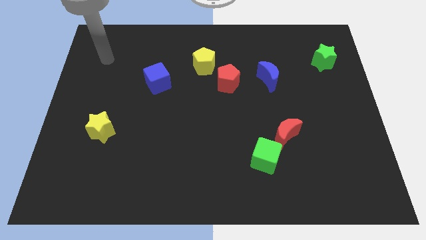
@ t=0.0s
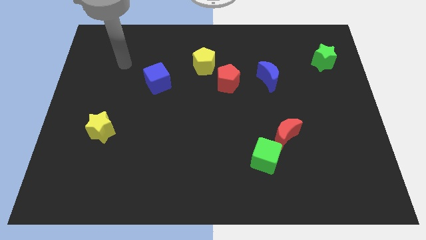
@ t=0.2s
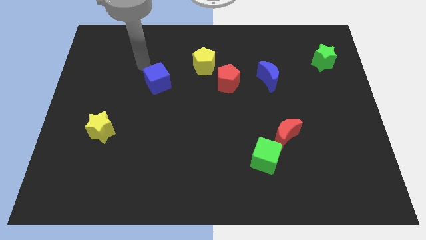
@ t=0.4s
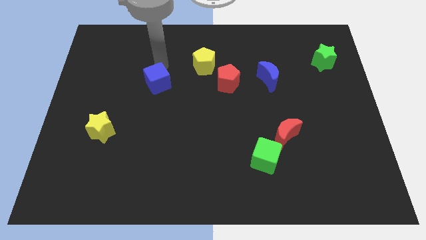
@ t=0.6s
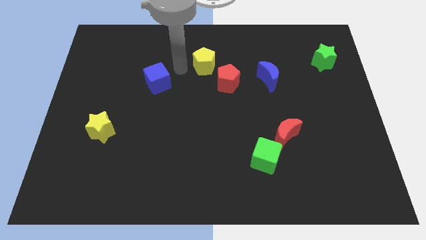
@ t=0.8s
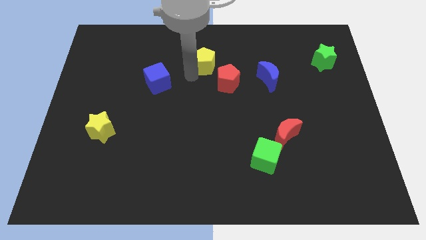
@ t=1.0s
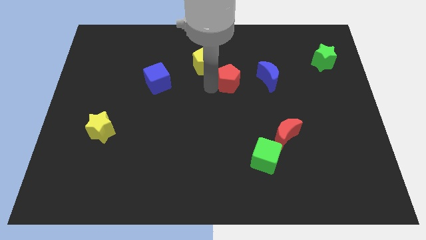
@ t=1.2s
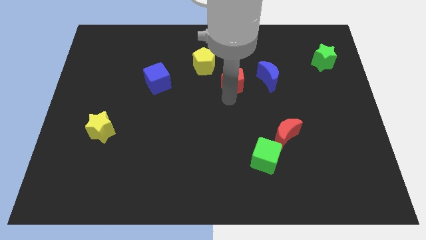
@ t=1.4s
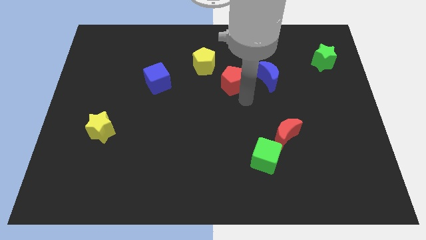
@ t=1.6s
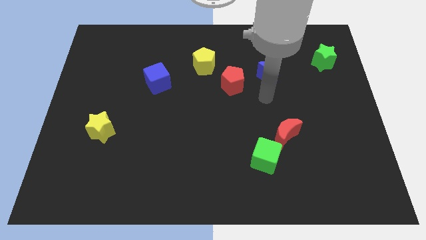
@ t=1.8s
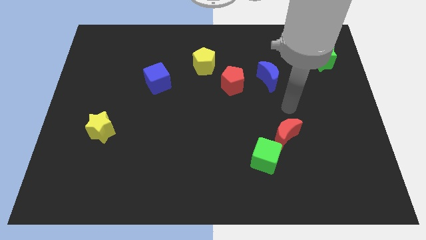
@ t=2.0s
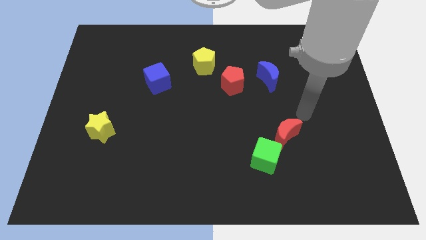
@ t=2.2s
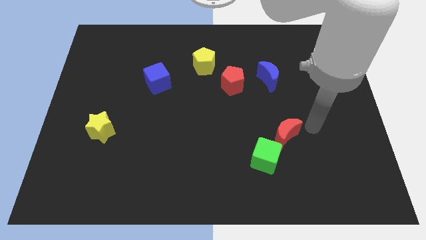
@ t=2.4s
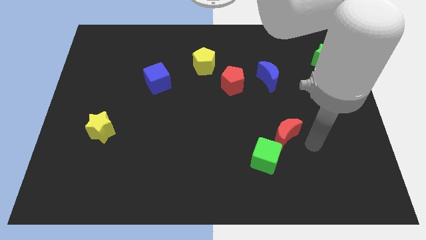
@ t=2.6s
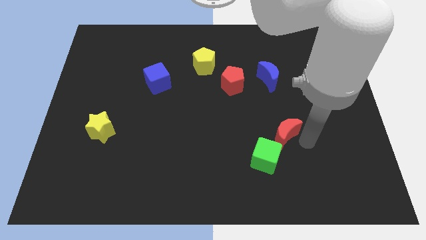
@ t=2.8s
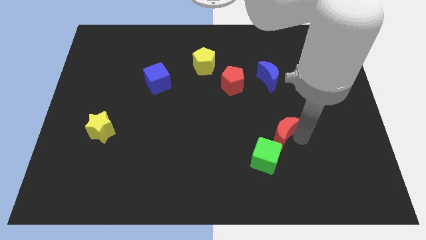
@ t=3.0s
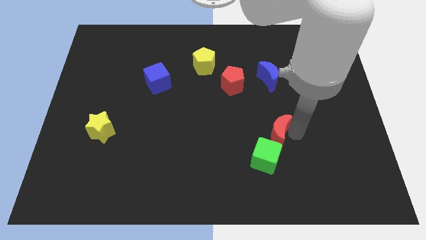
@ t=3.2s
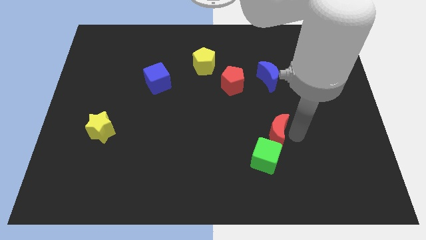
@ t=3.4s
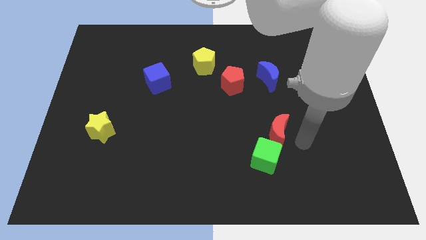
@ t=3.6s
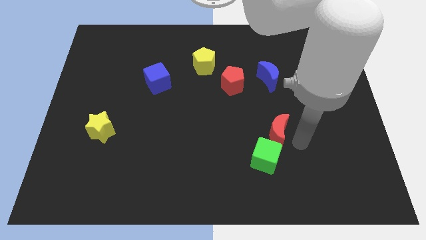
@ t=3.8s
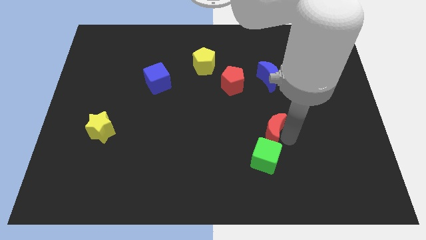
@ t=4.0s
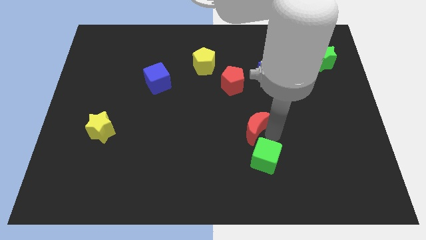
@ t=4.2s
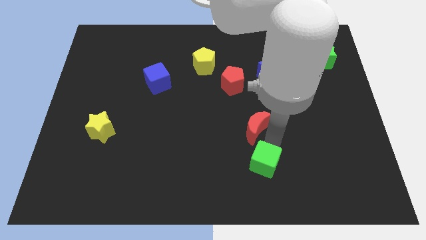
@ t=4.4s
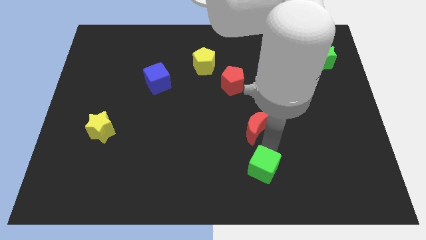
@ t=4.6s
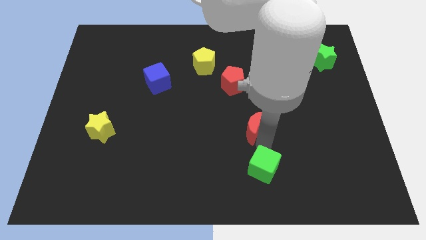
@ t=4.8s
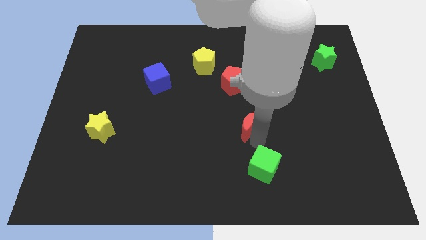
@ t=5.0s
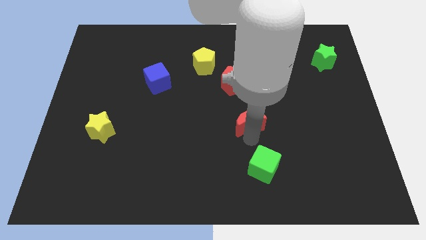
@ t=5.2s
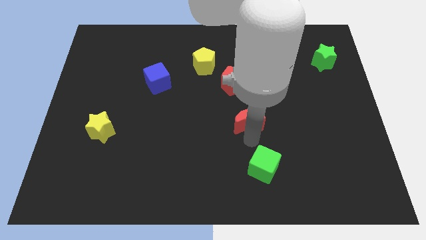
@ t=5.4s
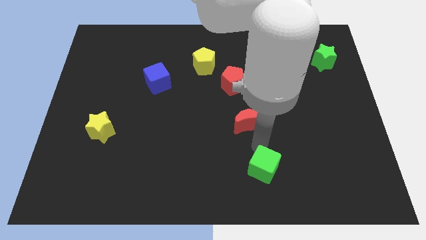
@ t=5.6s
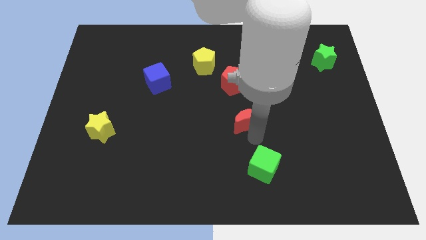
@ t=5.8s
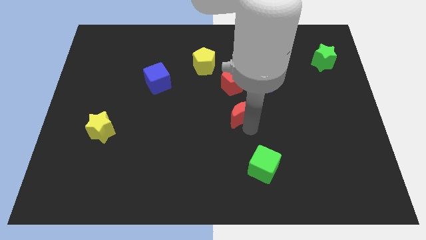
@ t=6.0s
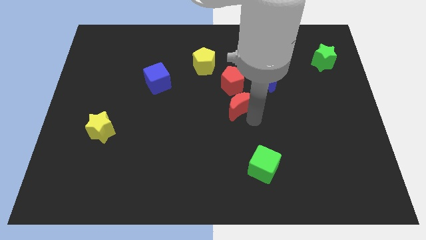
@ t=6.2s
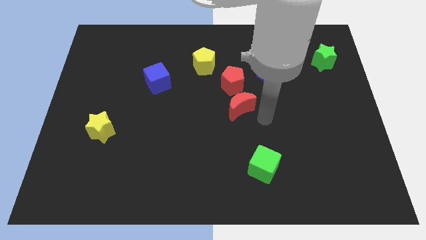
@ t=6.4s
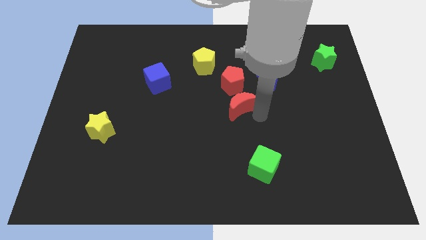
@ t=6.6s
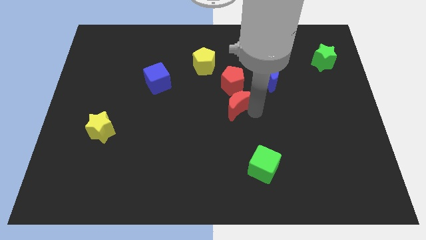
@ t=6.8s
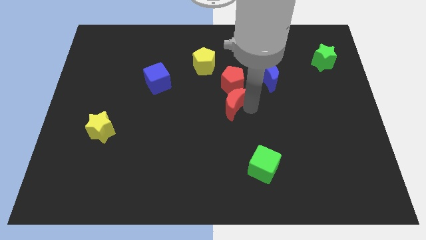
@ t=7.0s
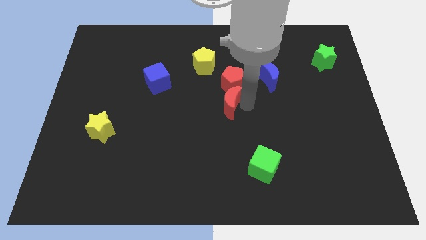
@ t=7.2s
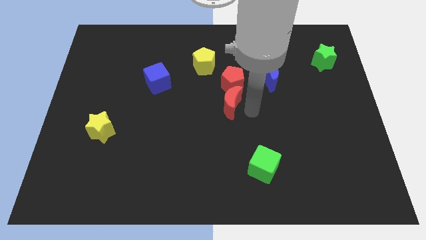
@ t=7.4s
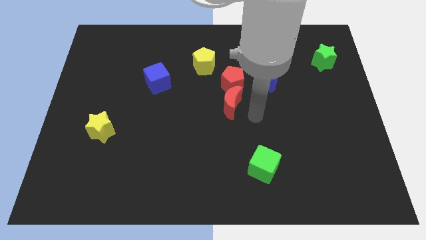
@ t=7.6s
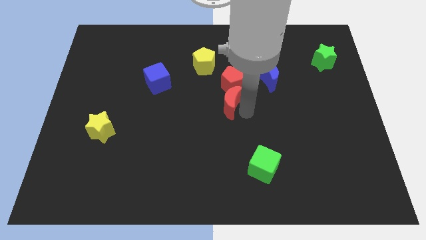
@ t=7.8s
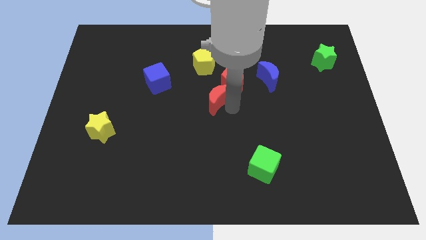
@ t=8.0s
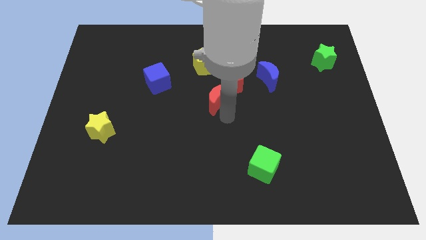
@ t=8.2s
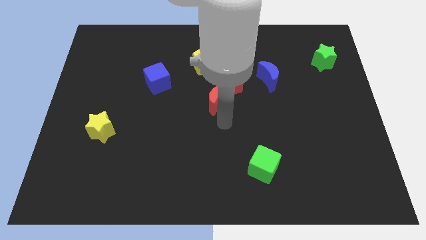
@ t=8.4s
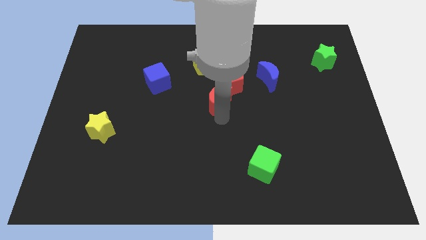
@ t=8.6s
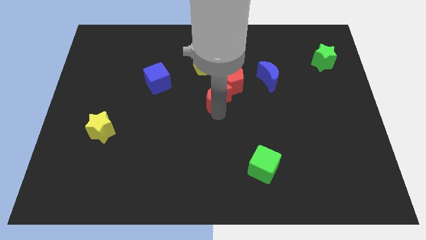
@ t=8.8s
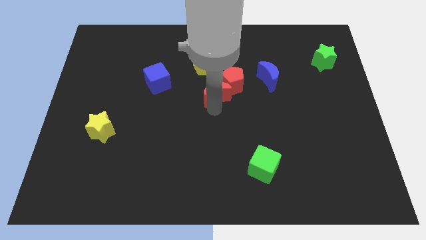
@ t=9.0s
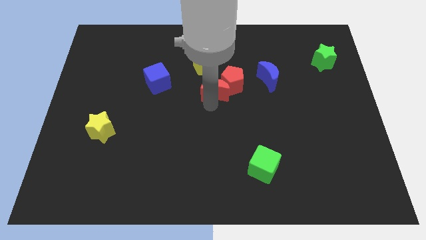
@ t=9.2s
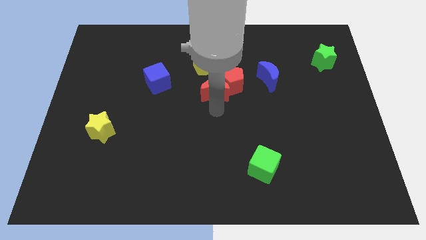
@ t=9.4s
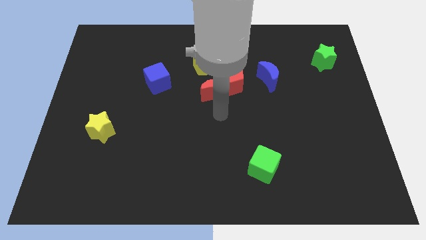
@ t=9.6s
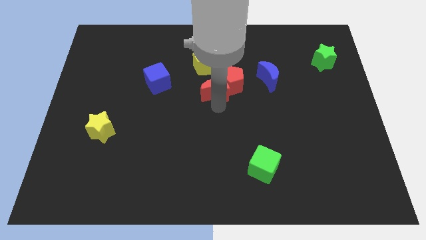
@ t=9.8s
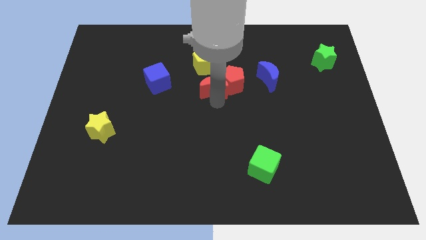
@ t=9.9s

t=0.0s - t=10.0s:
put the red moon just left of the blue moon

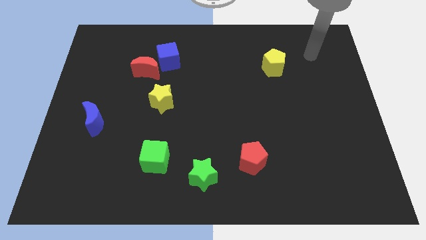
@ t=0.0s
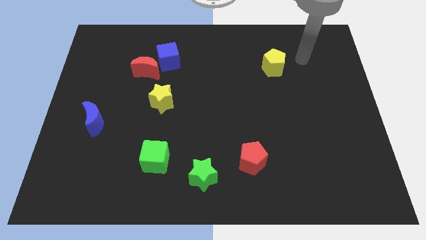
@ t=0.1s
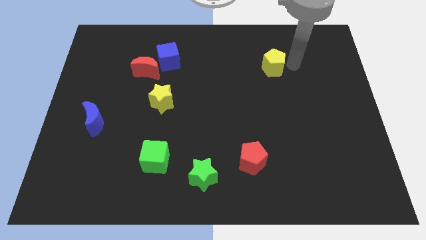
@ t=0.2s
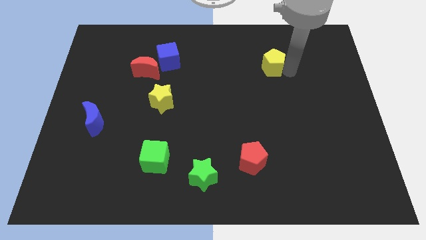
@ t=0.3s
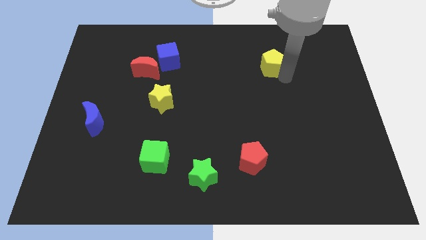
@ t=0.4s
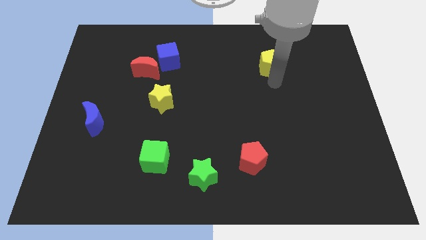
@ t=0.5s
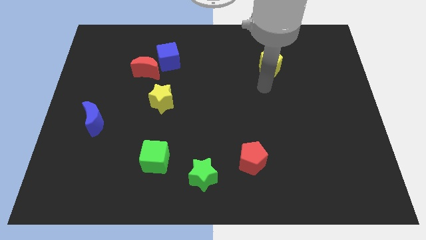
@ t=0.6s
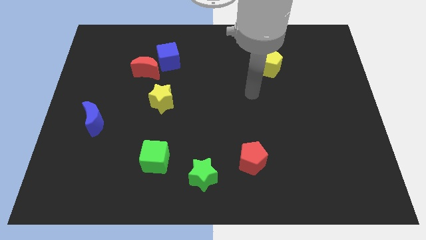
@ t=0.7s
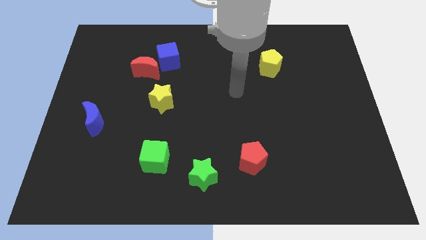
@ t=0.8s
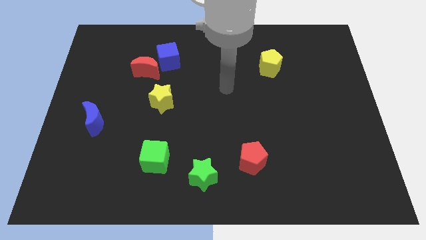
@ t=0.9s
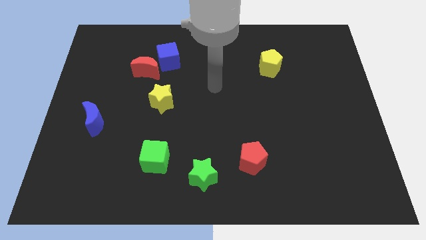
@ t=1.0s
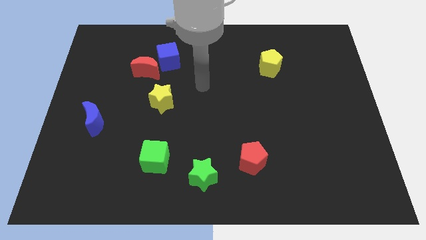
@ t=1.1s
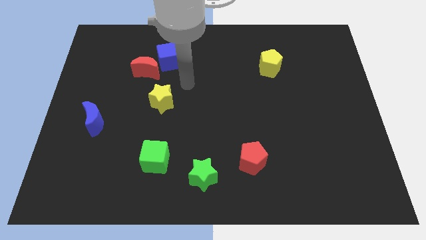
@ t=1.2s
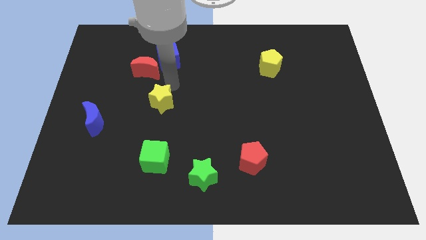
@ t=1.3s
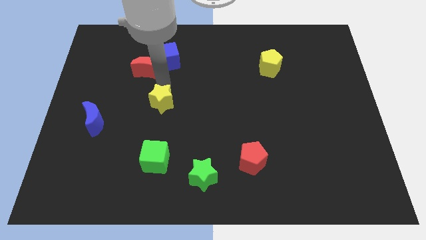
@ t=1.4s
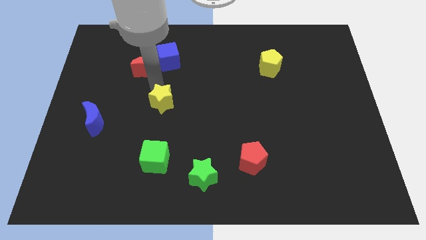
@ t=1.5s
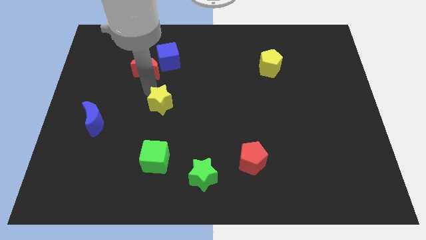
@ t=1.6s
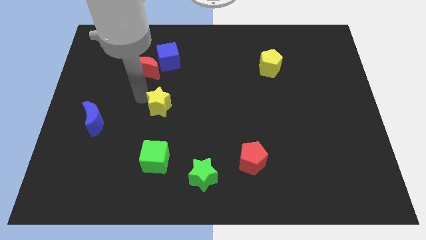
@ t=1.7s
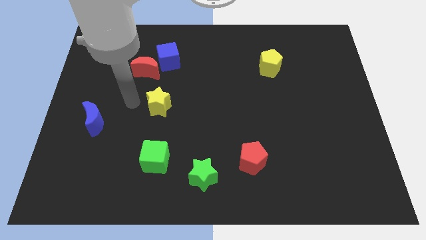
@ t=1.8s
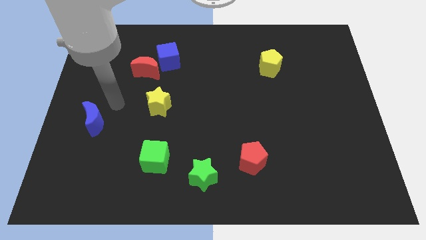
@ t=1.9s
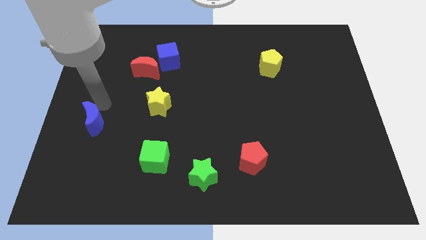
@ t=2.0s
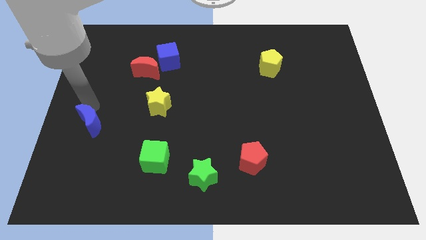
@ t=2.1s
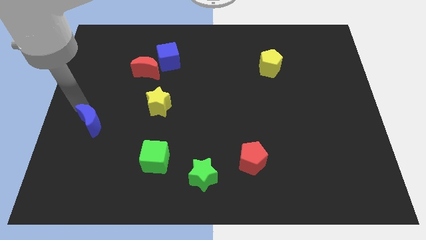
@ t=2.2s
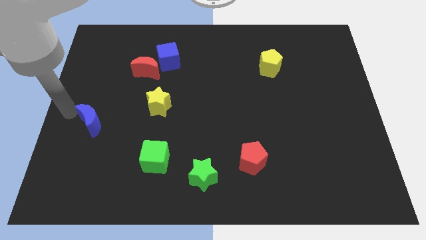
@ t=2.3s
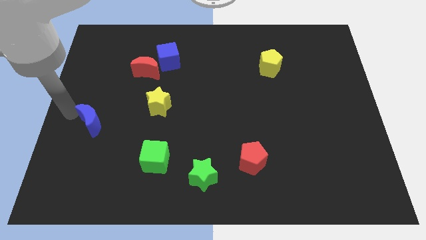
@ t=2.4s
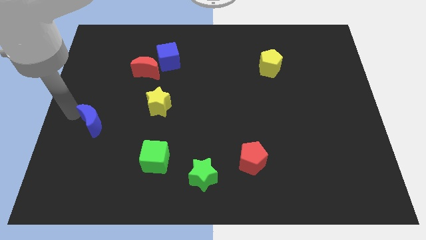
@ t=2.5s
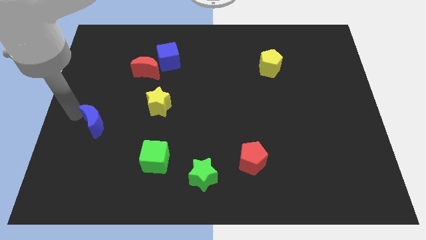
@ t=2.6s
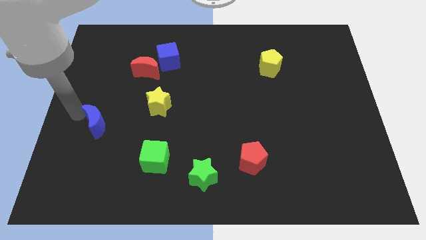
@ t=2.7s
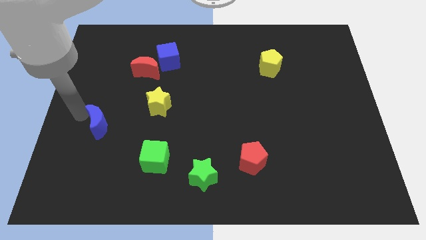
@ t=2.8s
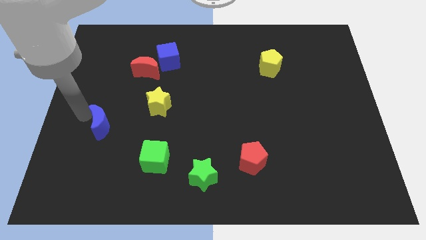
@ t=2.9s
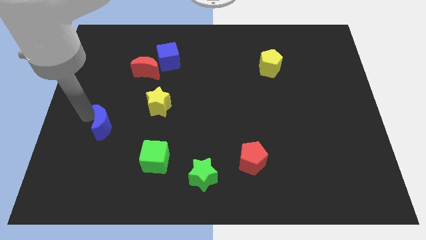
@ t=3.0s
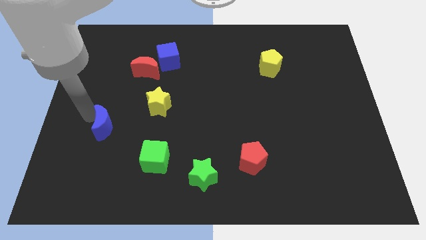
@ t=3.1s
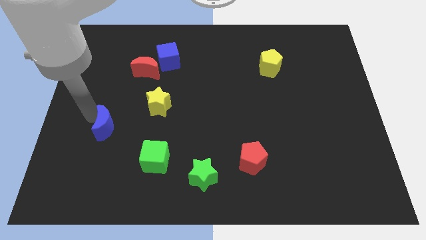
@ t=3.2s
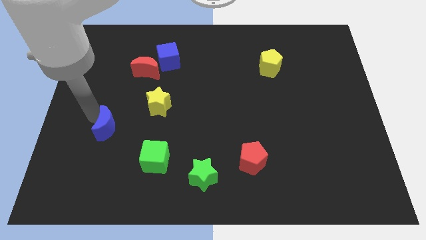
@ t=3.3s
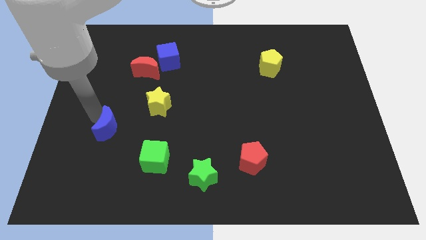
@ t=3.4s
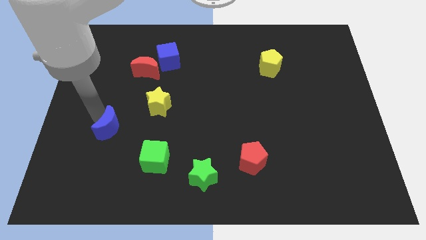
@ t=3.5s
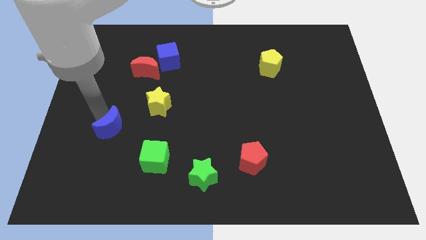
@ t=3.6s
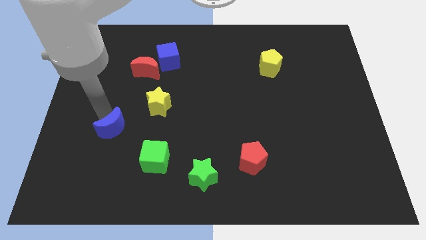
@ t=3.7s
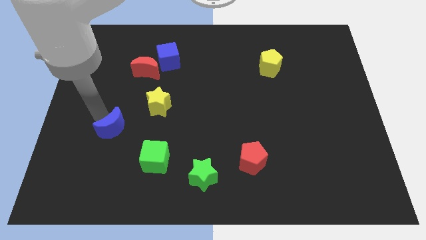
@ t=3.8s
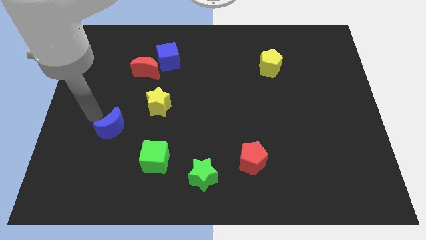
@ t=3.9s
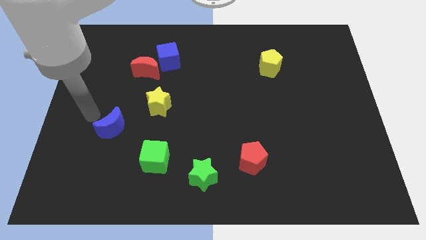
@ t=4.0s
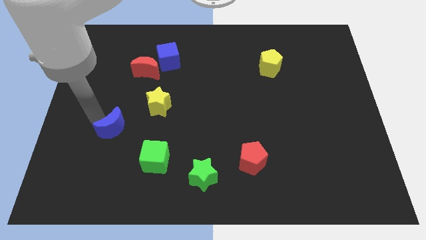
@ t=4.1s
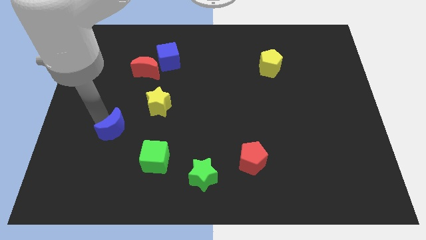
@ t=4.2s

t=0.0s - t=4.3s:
slide the blue moon diagonally up and to the left of the green cube
